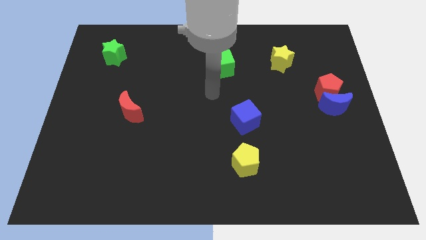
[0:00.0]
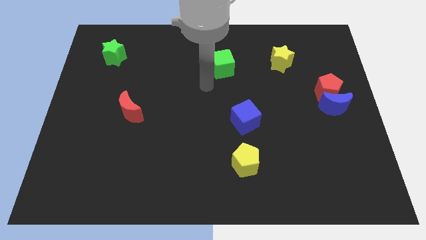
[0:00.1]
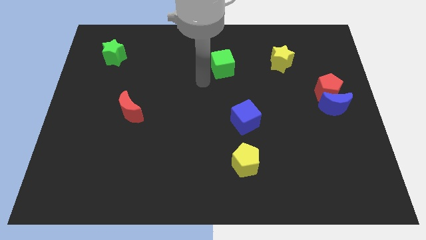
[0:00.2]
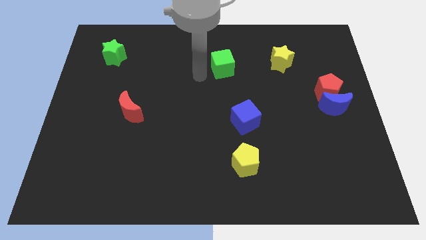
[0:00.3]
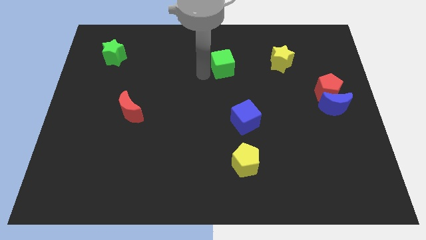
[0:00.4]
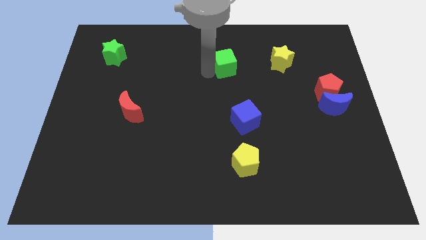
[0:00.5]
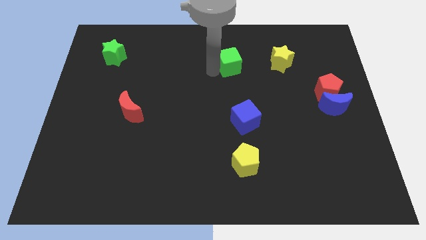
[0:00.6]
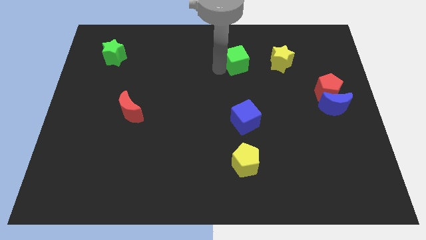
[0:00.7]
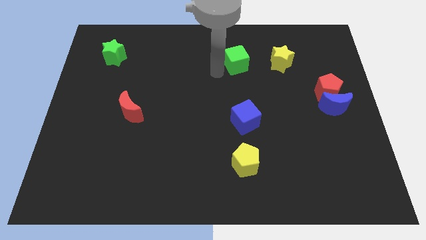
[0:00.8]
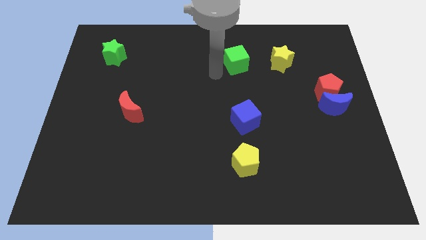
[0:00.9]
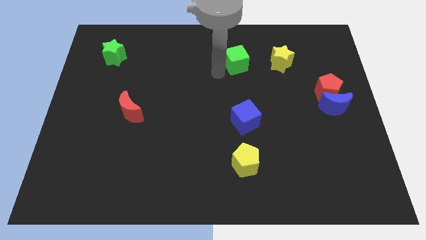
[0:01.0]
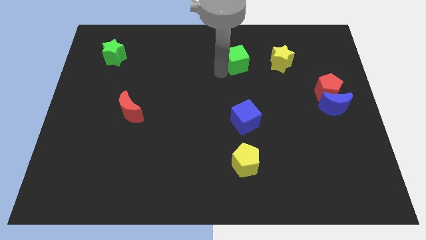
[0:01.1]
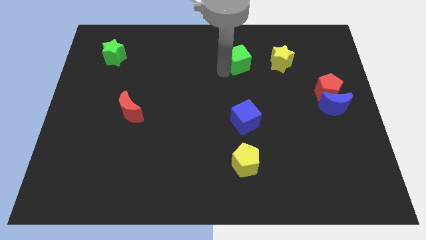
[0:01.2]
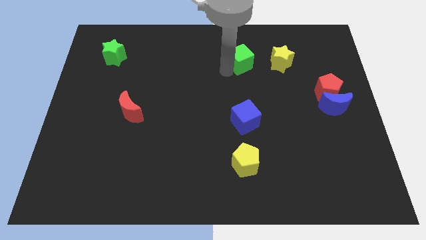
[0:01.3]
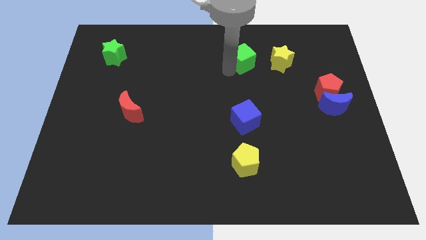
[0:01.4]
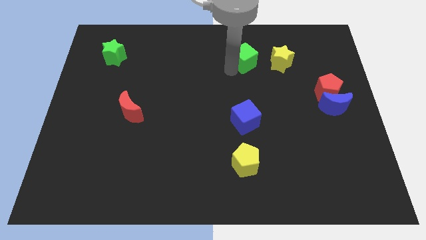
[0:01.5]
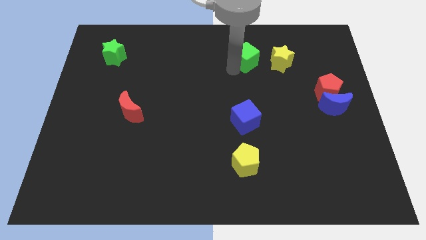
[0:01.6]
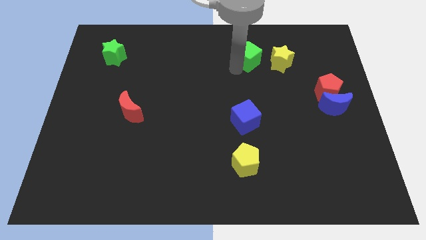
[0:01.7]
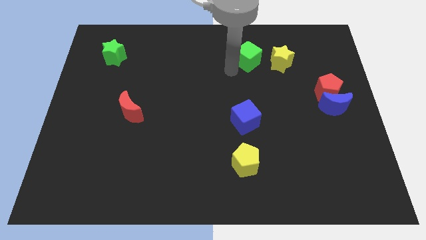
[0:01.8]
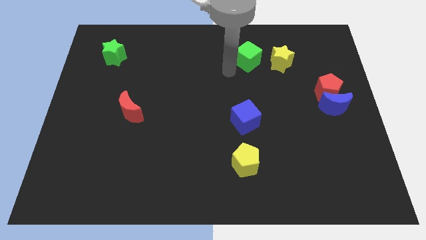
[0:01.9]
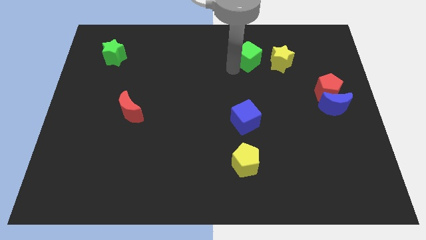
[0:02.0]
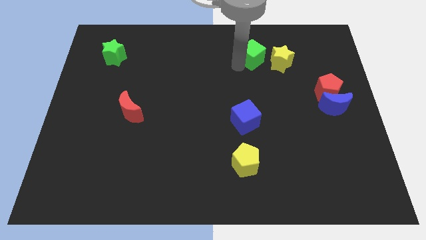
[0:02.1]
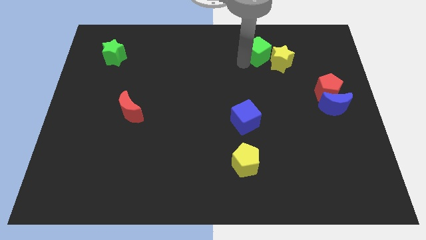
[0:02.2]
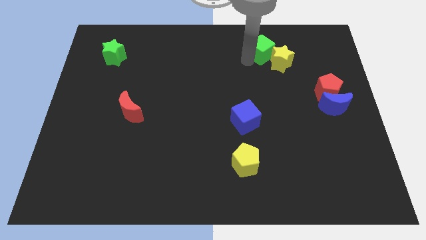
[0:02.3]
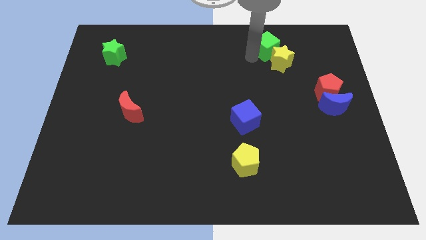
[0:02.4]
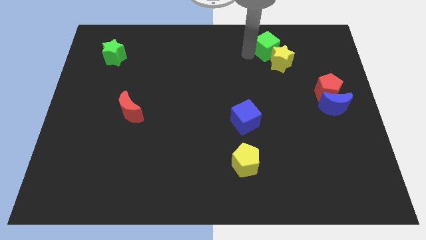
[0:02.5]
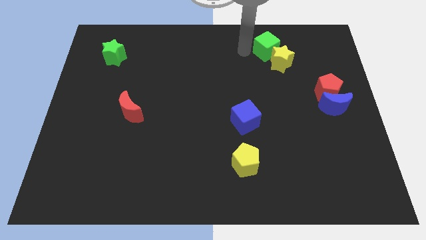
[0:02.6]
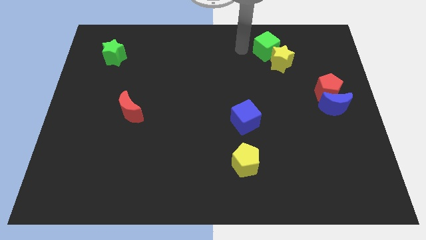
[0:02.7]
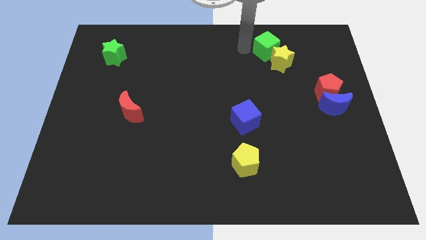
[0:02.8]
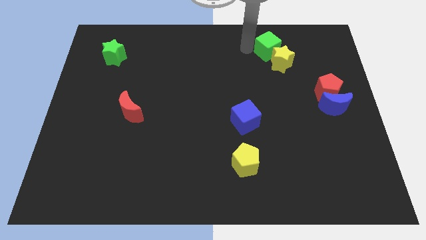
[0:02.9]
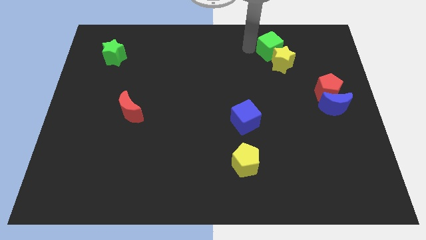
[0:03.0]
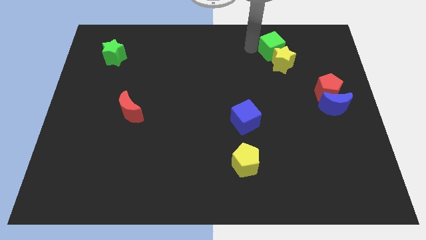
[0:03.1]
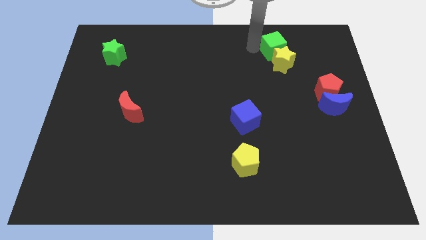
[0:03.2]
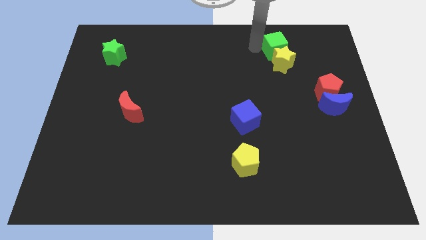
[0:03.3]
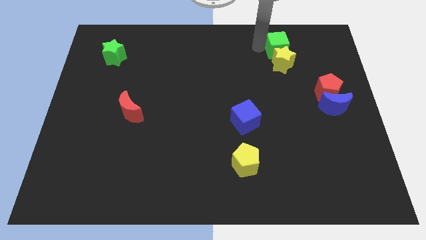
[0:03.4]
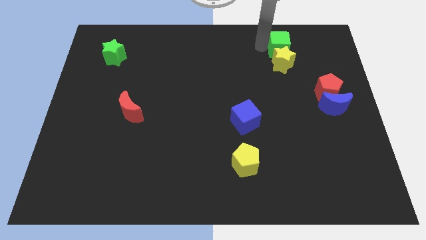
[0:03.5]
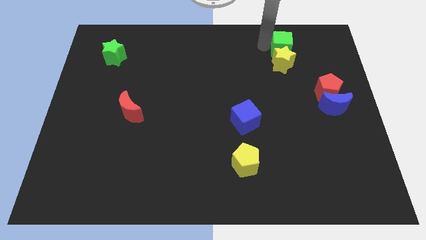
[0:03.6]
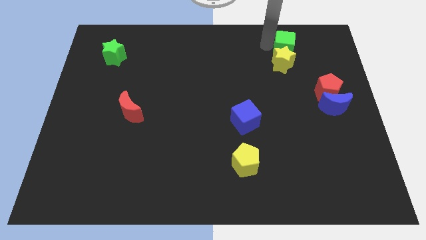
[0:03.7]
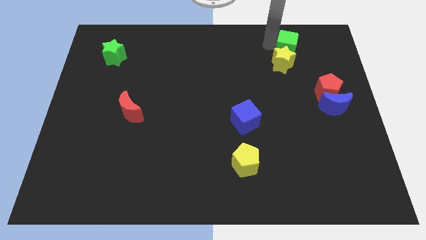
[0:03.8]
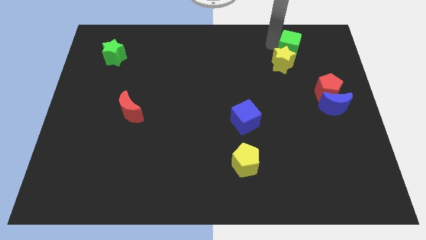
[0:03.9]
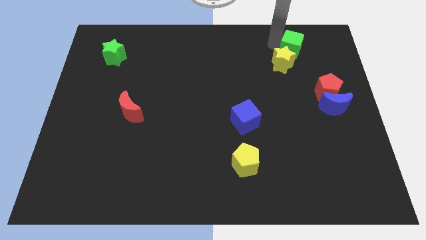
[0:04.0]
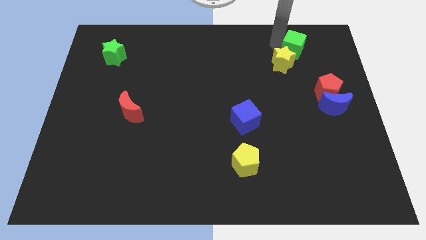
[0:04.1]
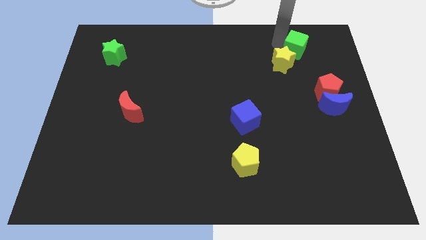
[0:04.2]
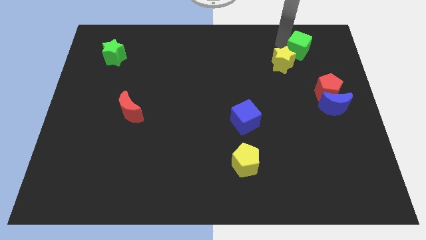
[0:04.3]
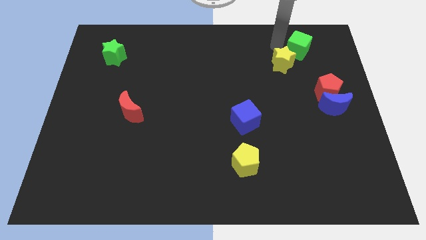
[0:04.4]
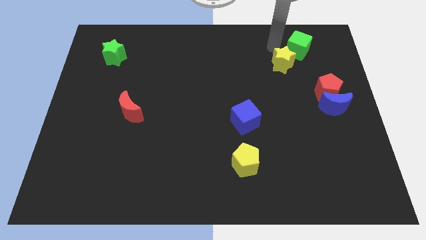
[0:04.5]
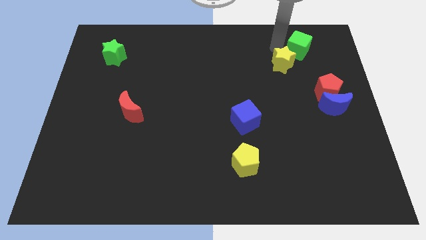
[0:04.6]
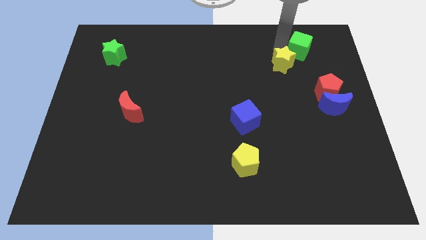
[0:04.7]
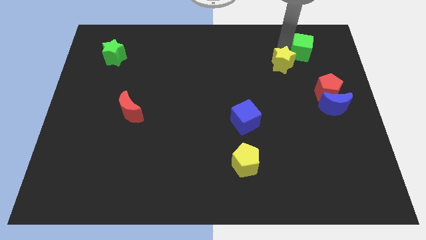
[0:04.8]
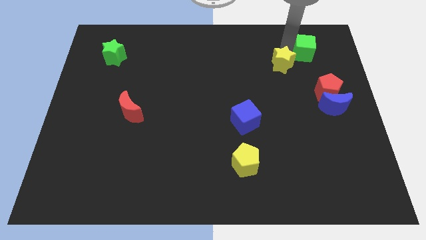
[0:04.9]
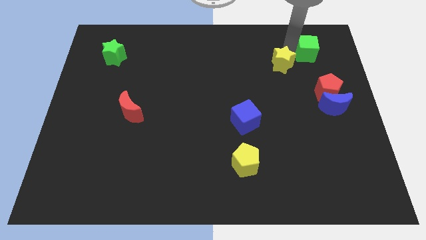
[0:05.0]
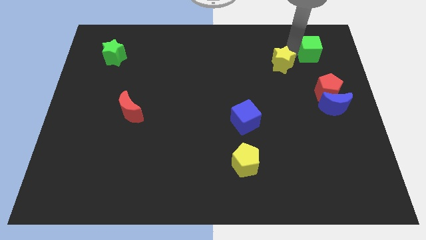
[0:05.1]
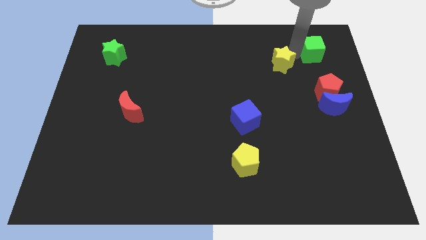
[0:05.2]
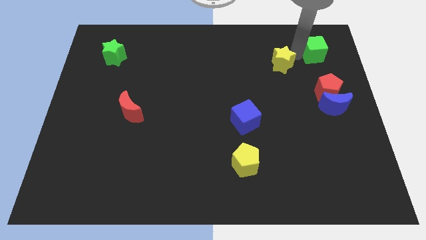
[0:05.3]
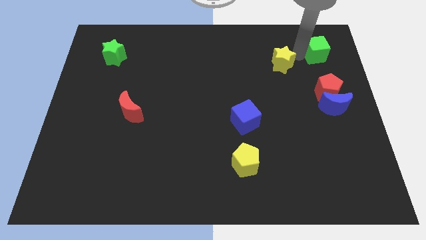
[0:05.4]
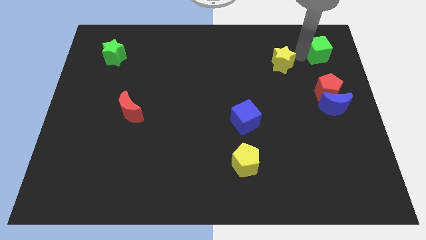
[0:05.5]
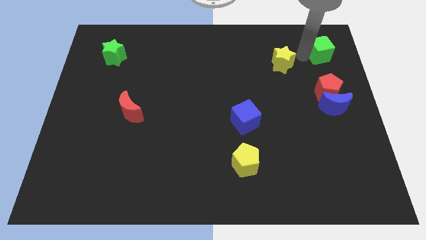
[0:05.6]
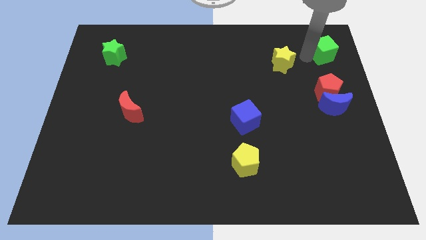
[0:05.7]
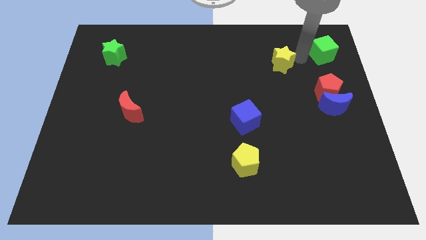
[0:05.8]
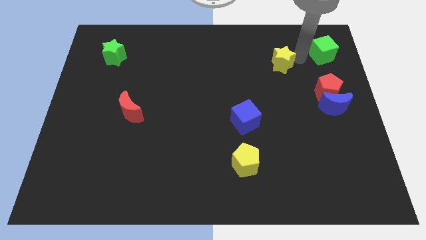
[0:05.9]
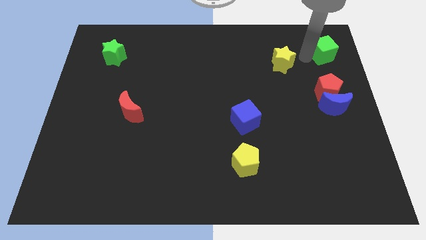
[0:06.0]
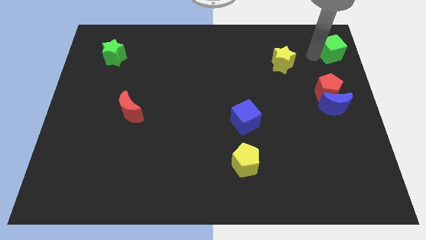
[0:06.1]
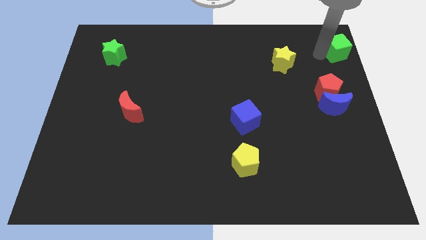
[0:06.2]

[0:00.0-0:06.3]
put the green cube to the top right corner
